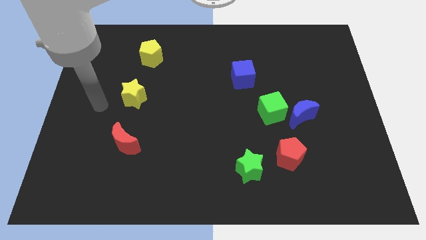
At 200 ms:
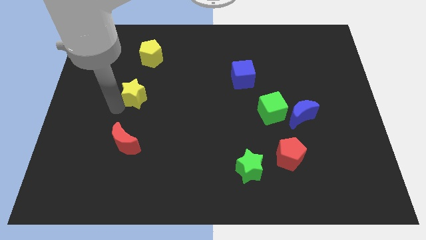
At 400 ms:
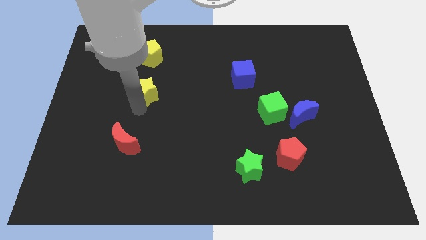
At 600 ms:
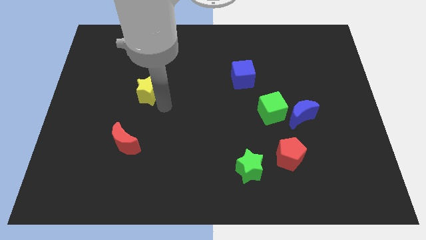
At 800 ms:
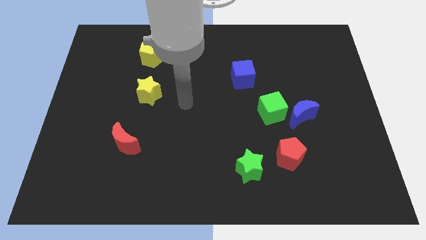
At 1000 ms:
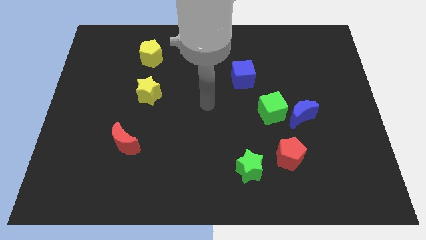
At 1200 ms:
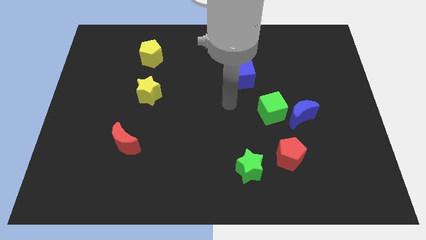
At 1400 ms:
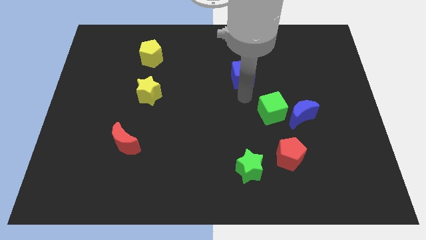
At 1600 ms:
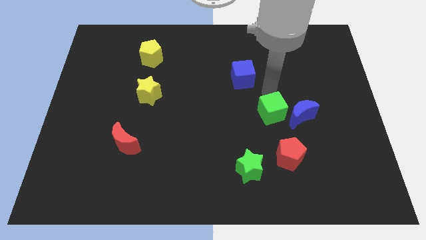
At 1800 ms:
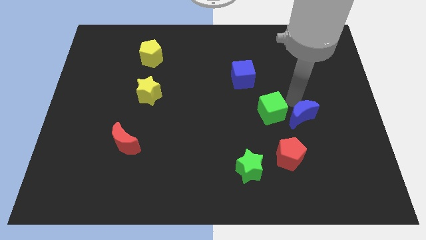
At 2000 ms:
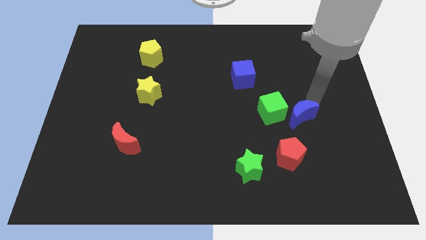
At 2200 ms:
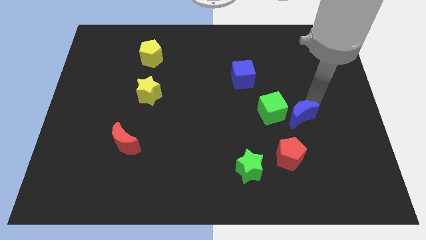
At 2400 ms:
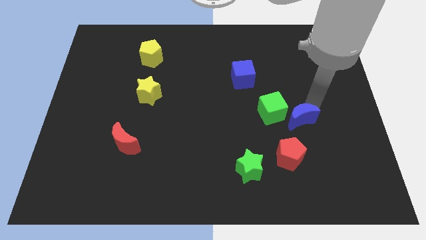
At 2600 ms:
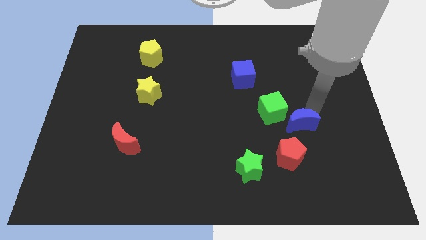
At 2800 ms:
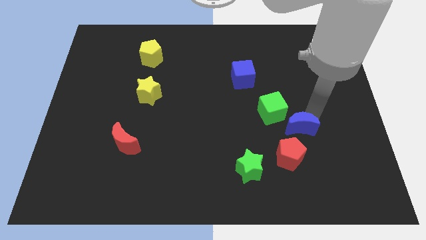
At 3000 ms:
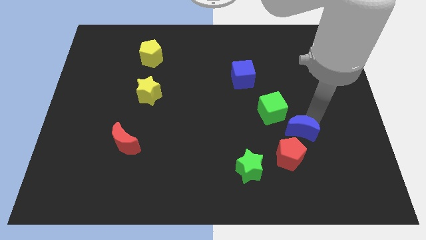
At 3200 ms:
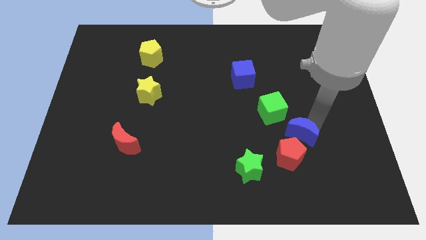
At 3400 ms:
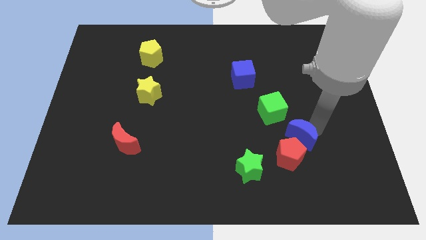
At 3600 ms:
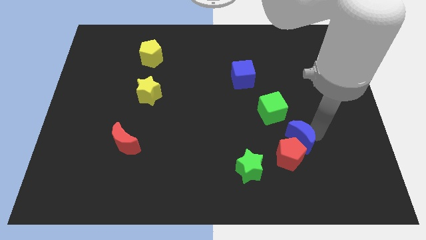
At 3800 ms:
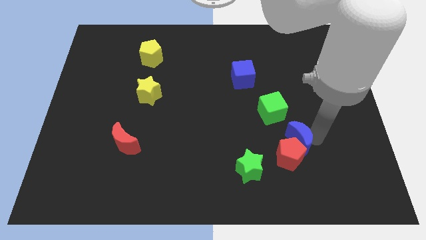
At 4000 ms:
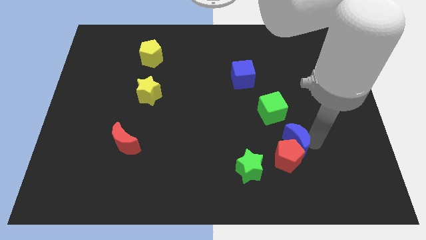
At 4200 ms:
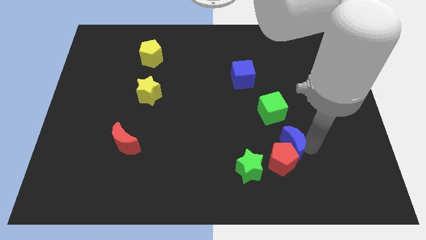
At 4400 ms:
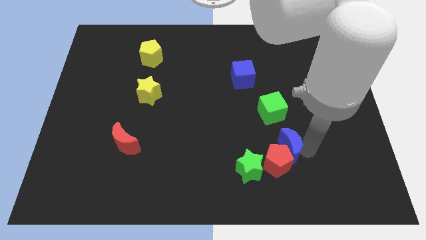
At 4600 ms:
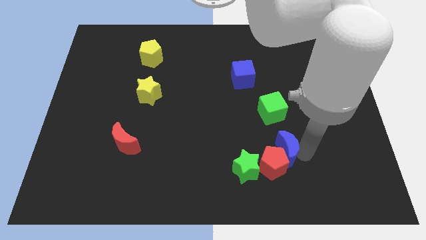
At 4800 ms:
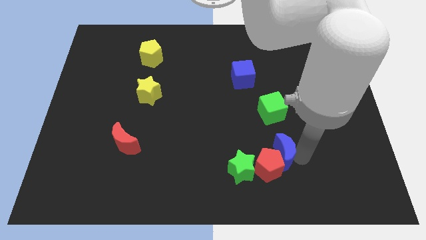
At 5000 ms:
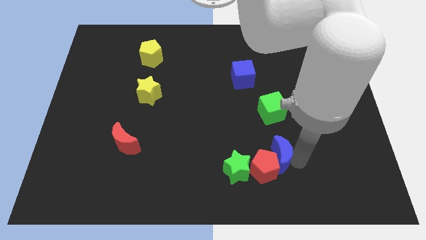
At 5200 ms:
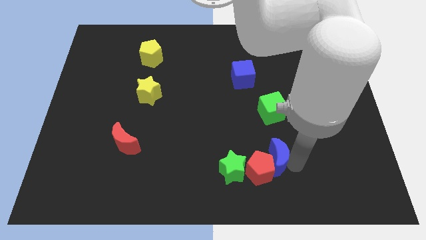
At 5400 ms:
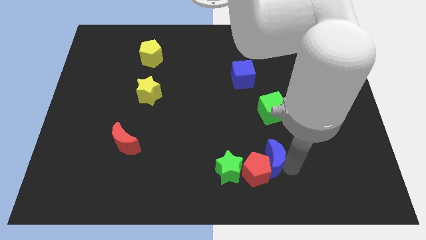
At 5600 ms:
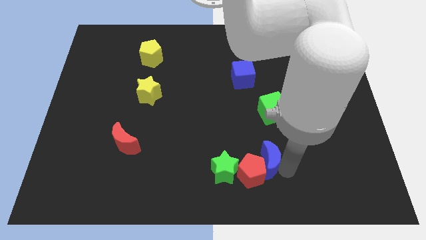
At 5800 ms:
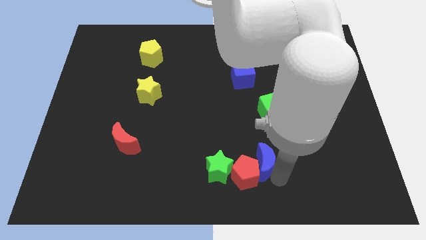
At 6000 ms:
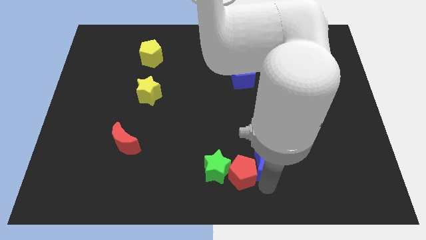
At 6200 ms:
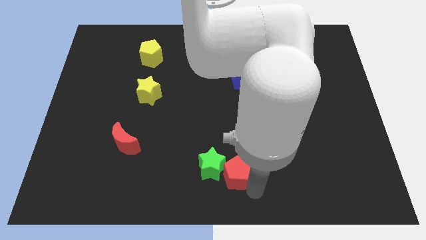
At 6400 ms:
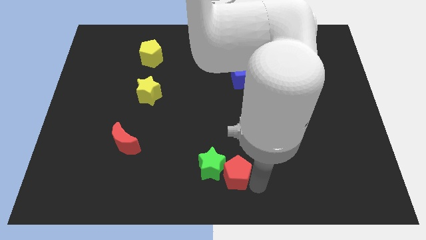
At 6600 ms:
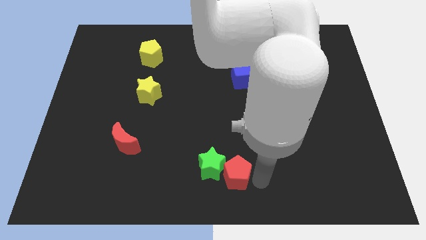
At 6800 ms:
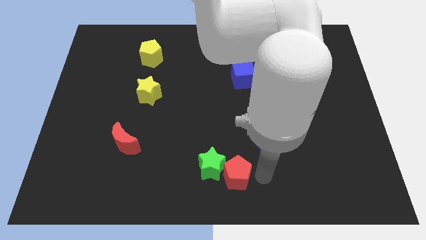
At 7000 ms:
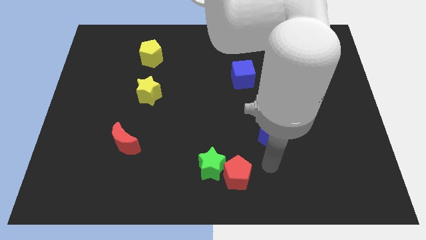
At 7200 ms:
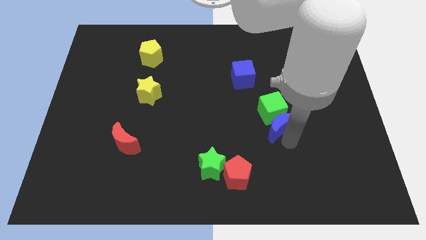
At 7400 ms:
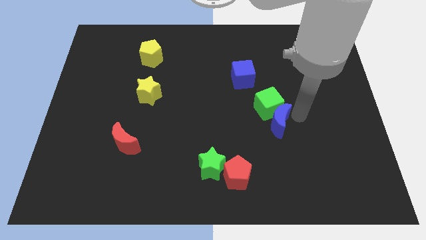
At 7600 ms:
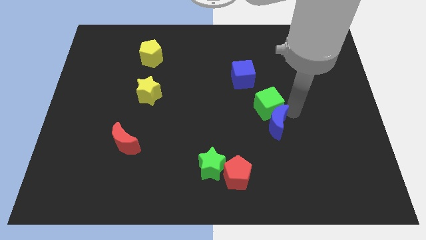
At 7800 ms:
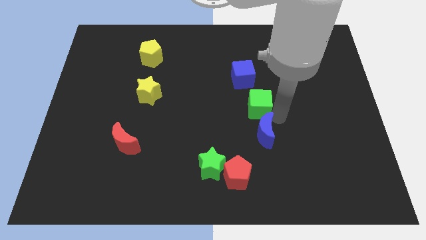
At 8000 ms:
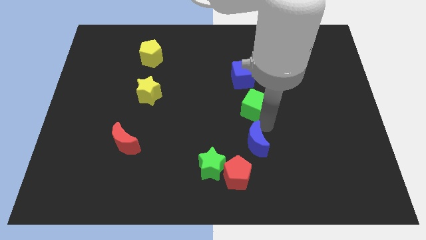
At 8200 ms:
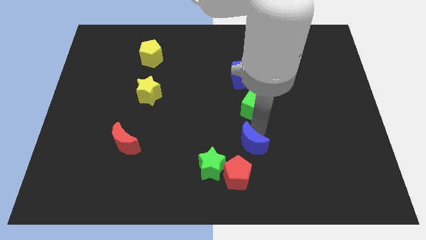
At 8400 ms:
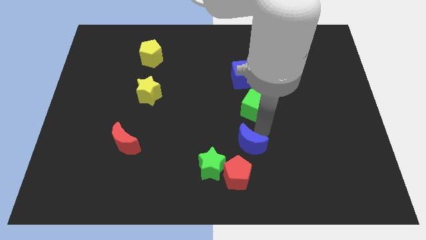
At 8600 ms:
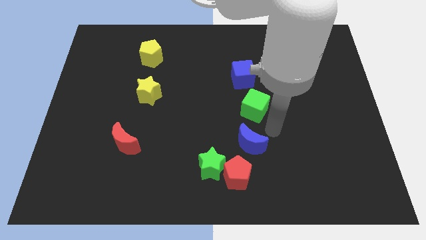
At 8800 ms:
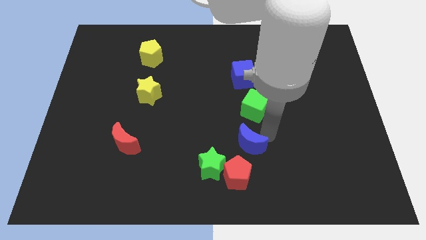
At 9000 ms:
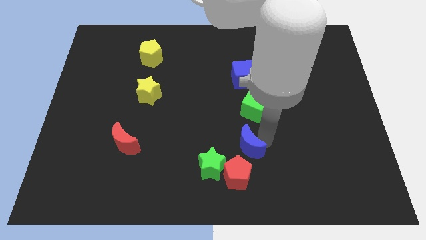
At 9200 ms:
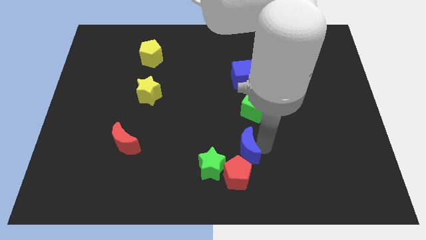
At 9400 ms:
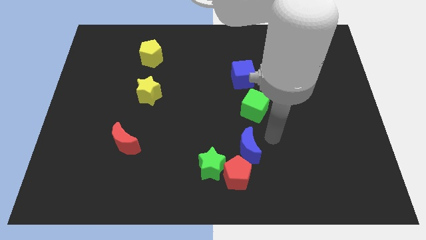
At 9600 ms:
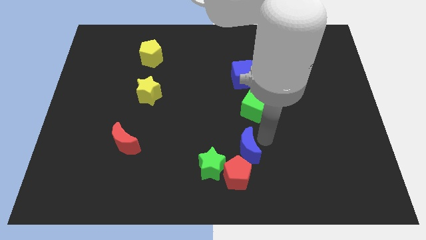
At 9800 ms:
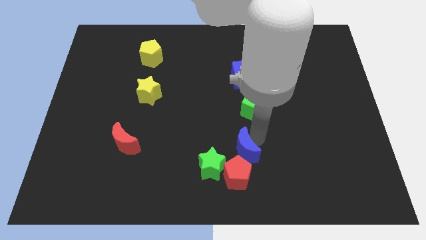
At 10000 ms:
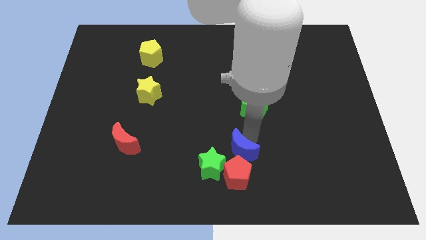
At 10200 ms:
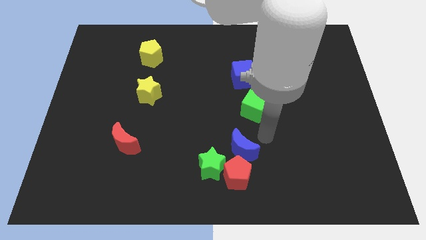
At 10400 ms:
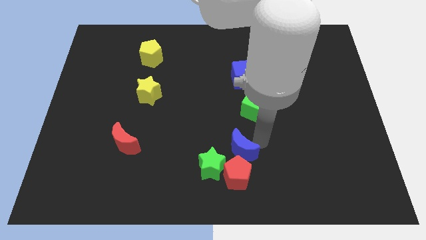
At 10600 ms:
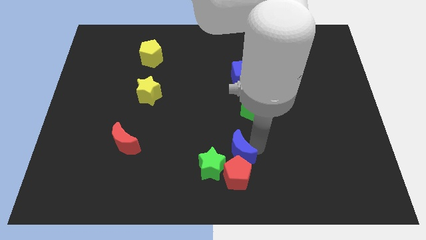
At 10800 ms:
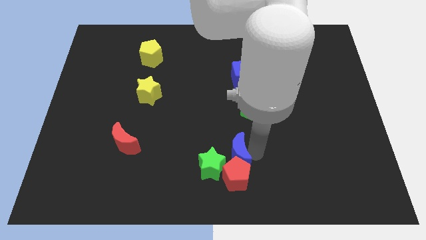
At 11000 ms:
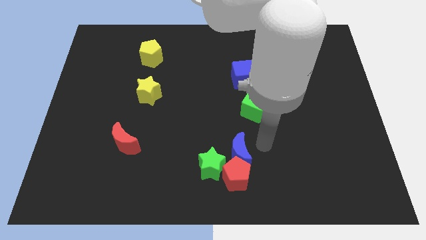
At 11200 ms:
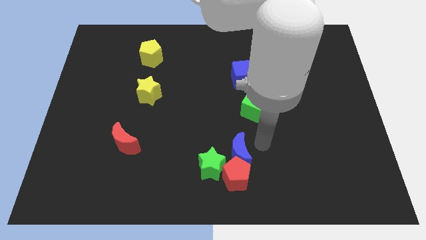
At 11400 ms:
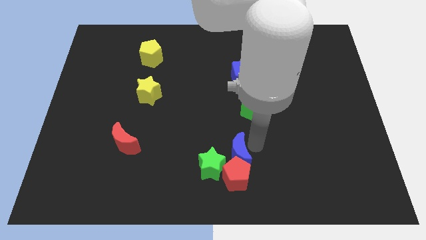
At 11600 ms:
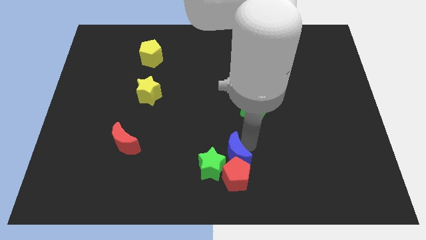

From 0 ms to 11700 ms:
slide the blue moon to the green star
